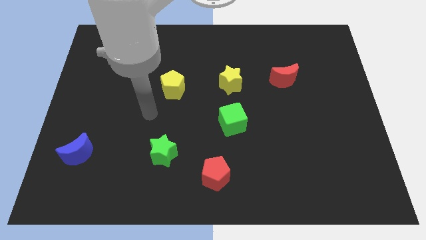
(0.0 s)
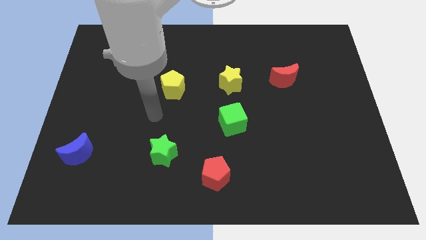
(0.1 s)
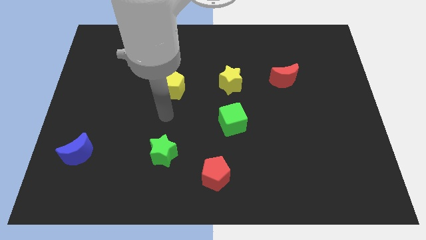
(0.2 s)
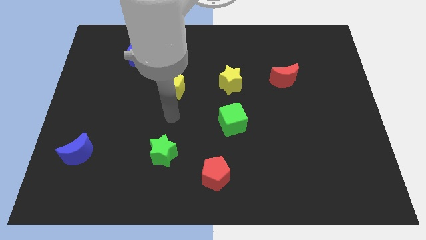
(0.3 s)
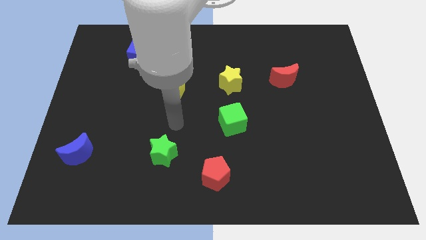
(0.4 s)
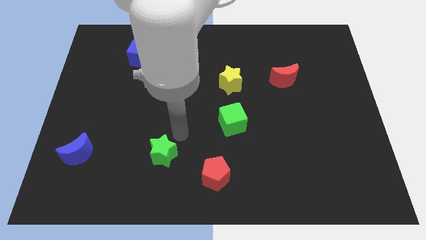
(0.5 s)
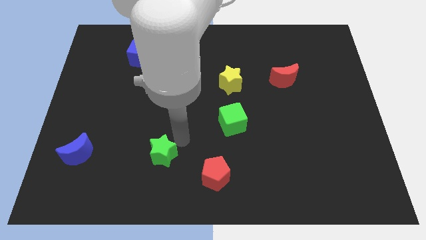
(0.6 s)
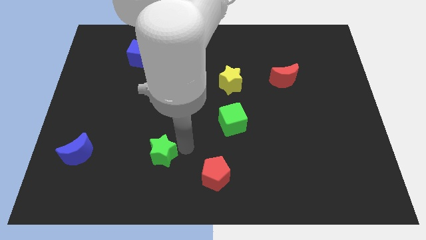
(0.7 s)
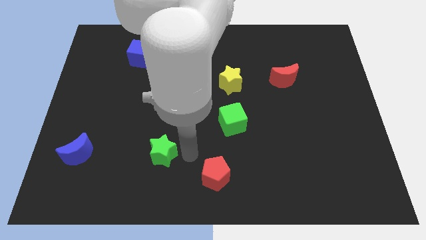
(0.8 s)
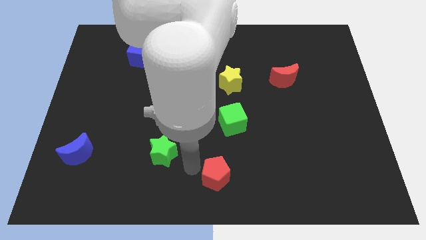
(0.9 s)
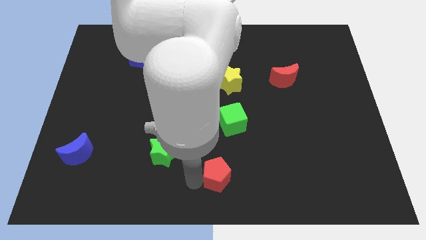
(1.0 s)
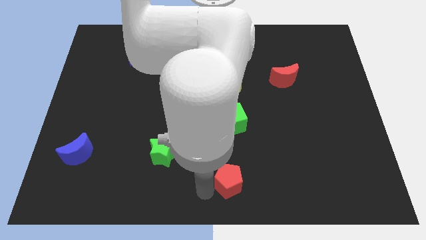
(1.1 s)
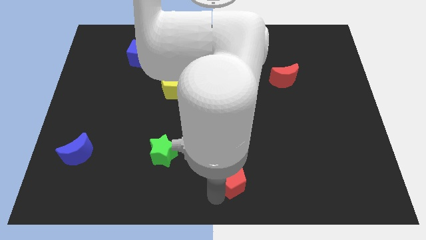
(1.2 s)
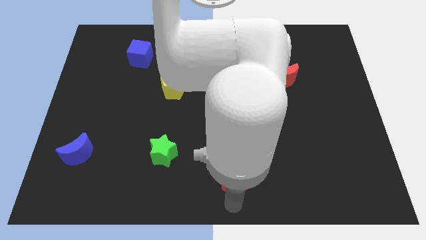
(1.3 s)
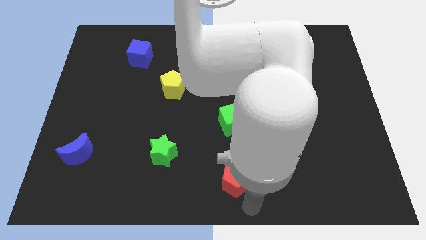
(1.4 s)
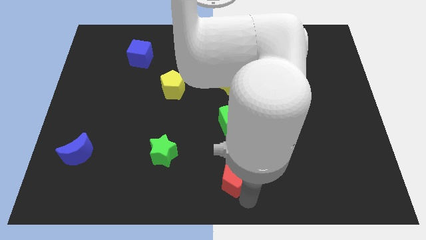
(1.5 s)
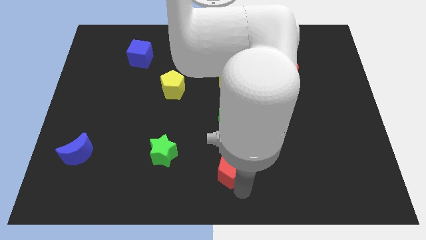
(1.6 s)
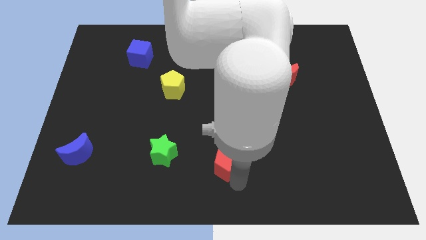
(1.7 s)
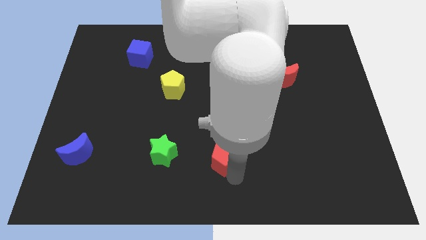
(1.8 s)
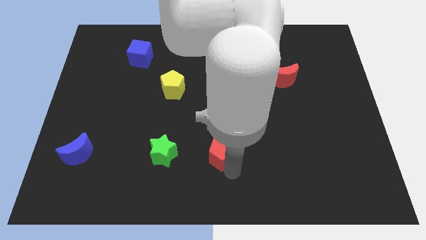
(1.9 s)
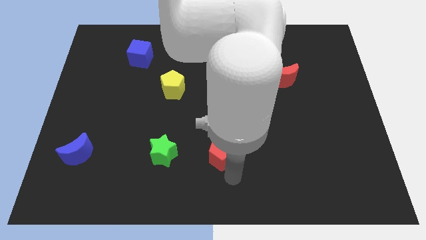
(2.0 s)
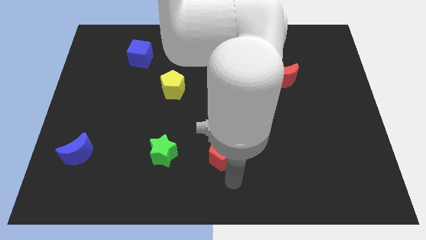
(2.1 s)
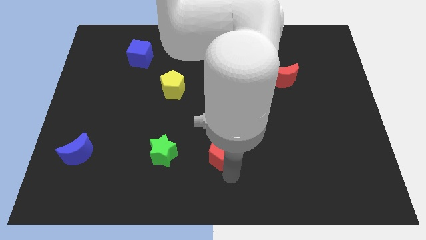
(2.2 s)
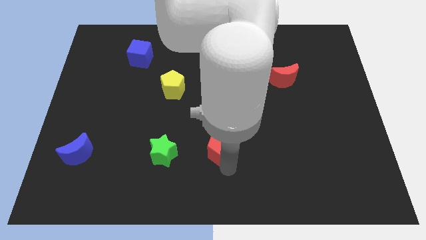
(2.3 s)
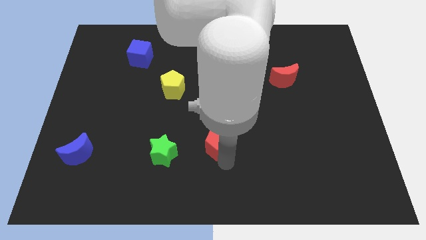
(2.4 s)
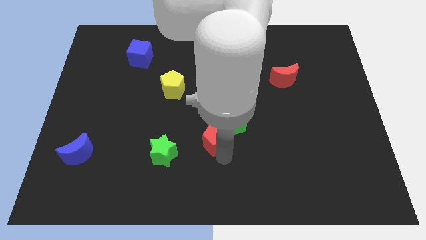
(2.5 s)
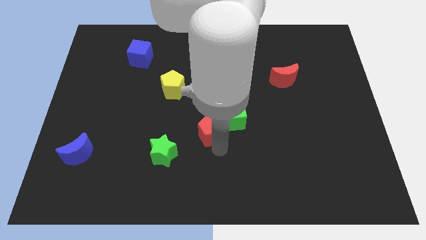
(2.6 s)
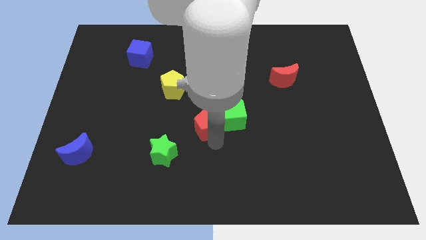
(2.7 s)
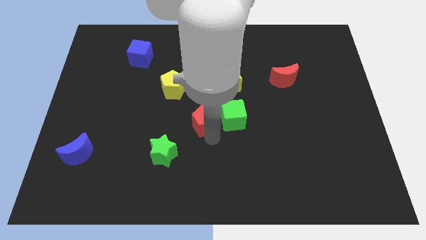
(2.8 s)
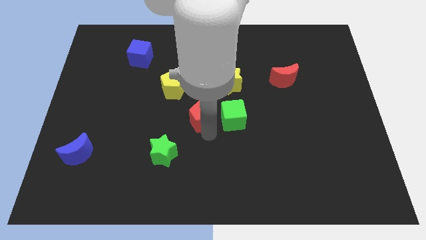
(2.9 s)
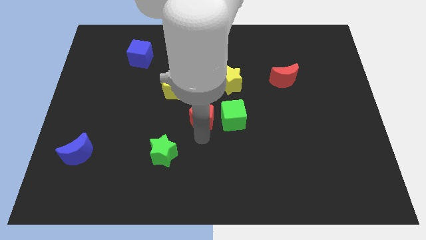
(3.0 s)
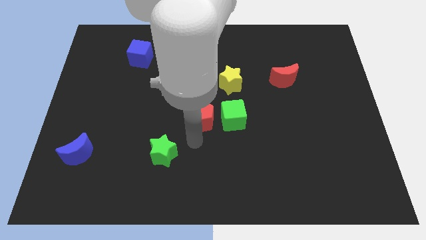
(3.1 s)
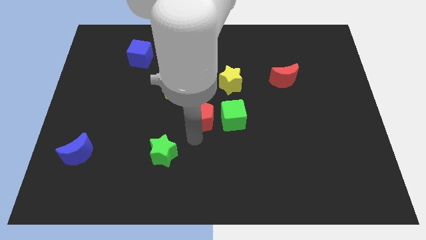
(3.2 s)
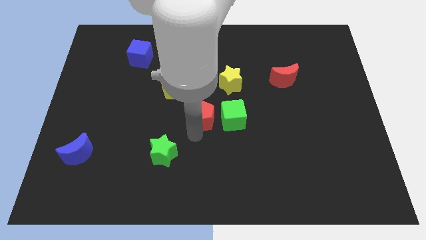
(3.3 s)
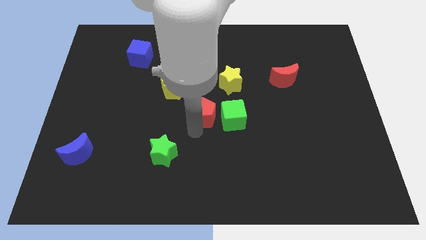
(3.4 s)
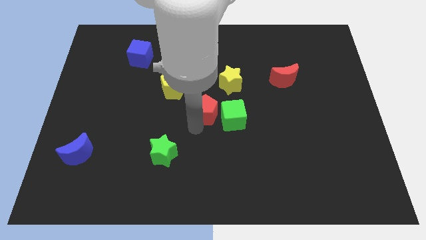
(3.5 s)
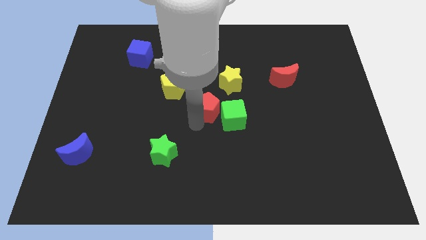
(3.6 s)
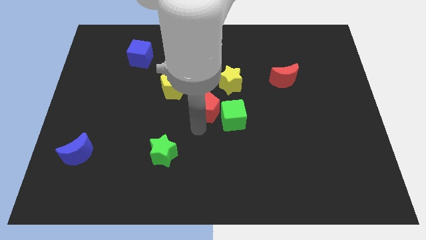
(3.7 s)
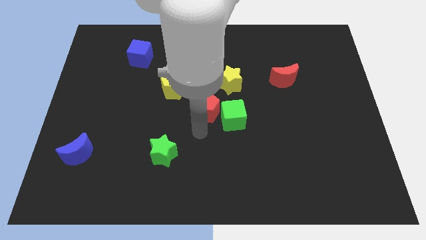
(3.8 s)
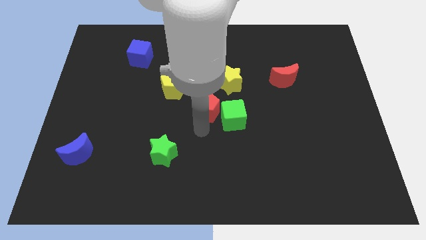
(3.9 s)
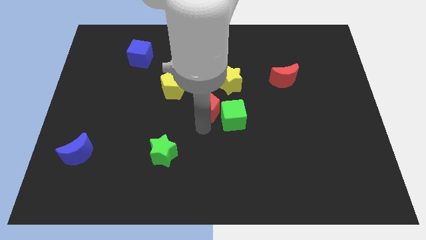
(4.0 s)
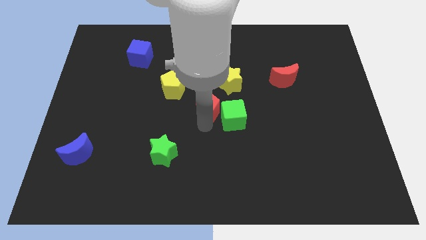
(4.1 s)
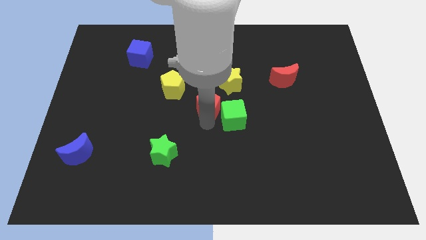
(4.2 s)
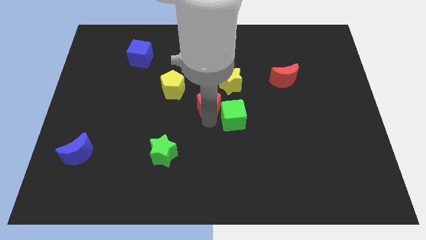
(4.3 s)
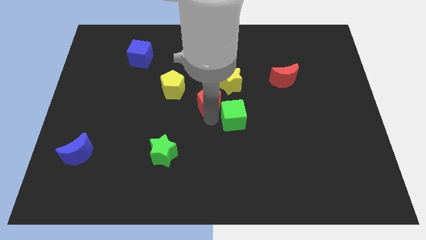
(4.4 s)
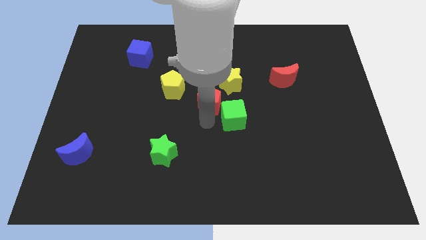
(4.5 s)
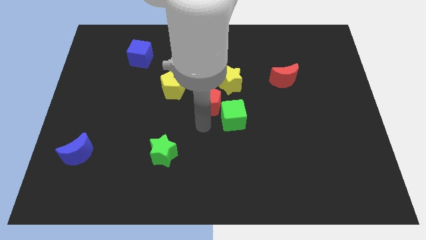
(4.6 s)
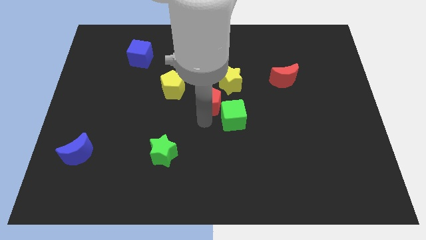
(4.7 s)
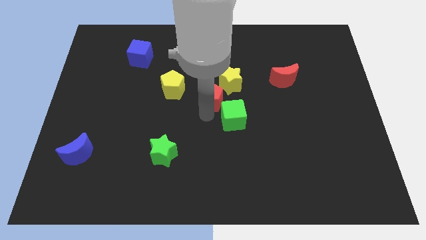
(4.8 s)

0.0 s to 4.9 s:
put the red pentagon to the right side of the yellow pentagon

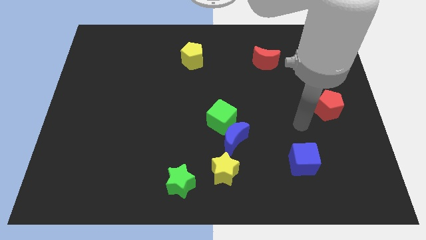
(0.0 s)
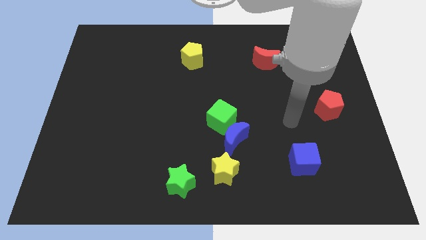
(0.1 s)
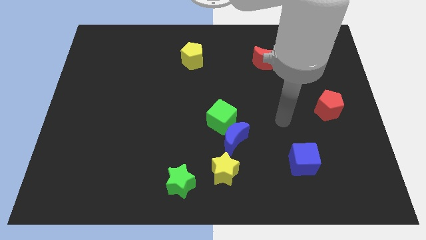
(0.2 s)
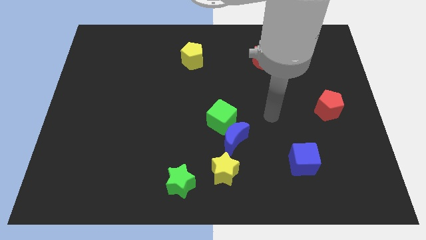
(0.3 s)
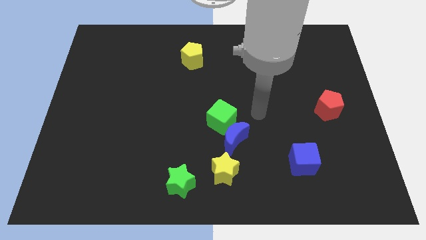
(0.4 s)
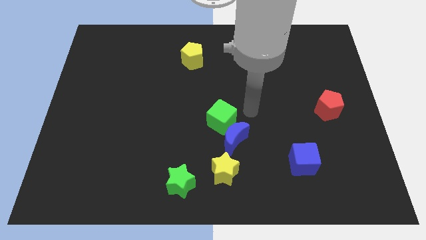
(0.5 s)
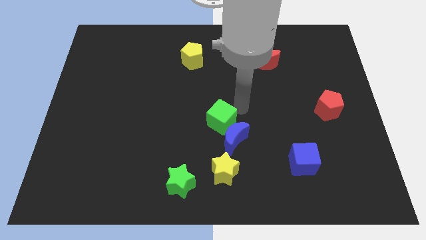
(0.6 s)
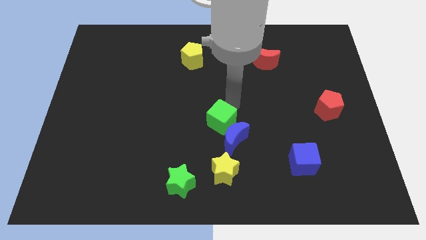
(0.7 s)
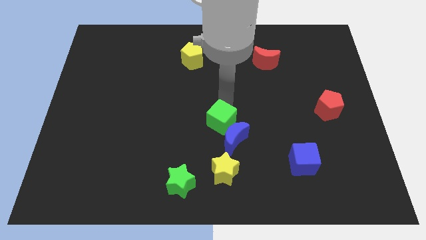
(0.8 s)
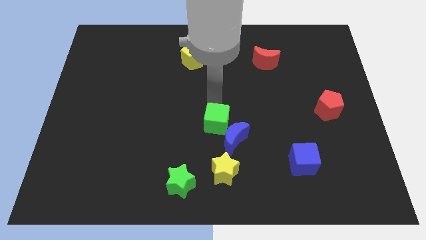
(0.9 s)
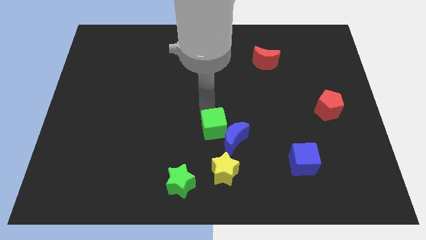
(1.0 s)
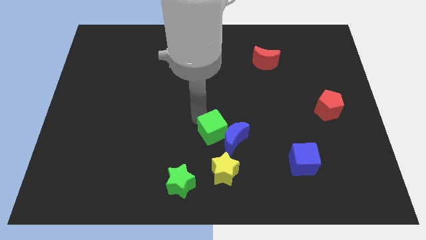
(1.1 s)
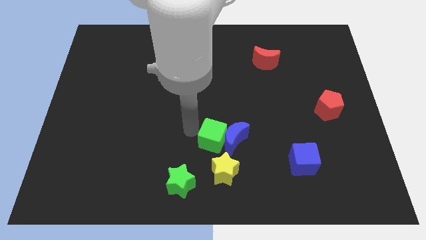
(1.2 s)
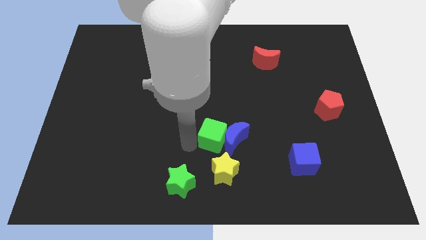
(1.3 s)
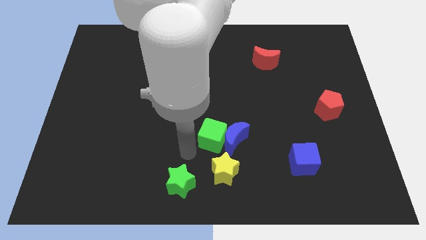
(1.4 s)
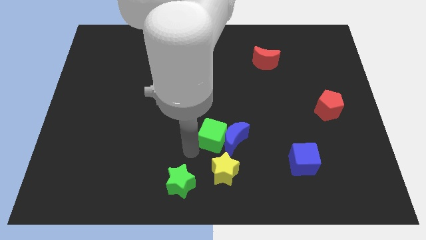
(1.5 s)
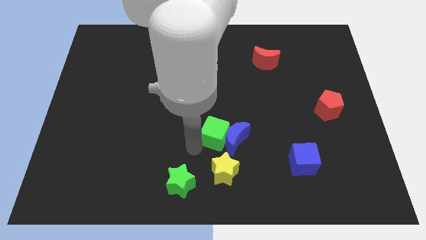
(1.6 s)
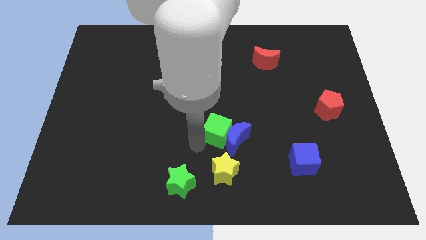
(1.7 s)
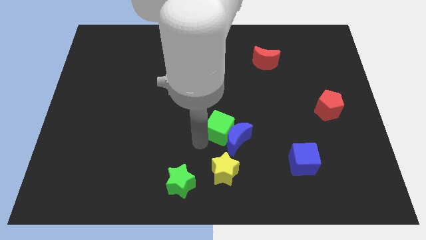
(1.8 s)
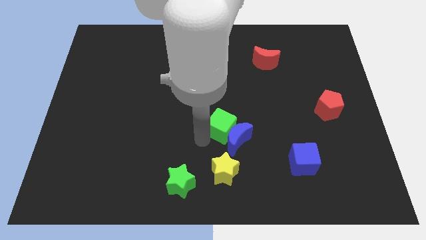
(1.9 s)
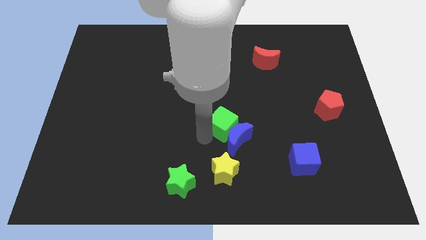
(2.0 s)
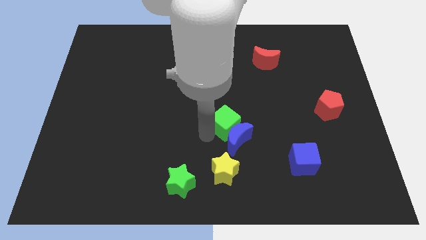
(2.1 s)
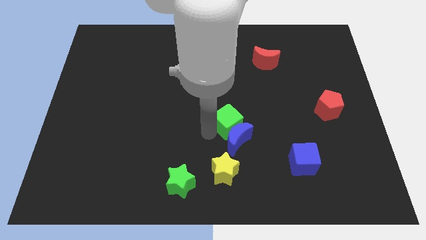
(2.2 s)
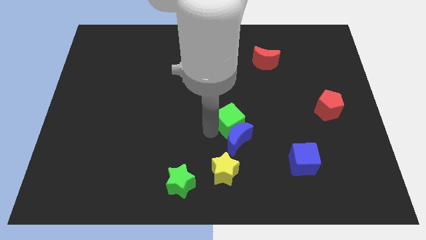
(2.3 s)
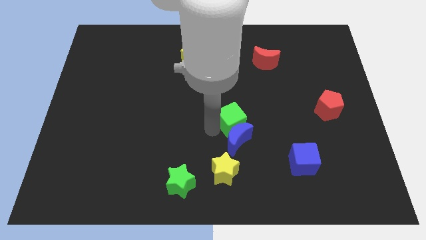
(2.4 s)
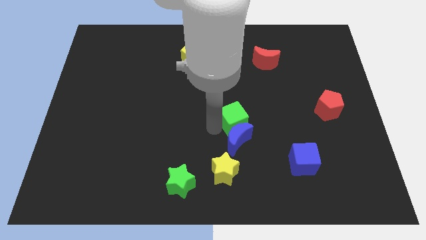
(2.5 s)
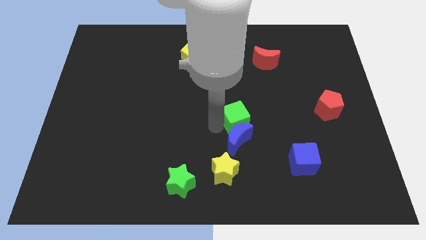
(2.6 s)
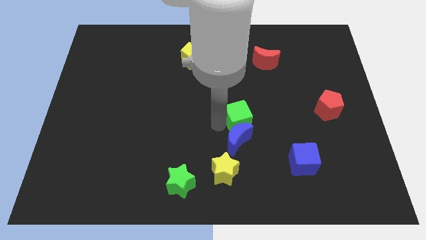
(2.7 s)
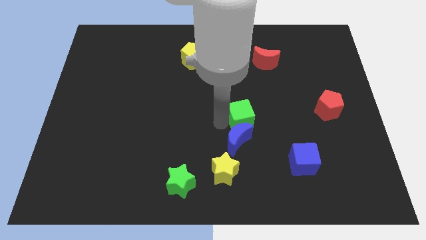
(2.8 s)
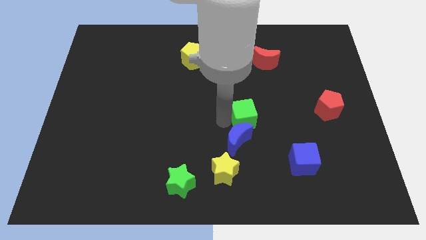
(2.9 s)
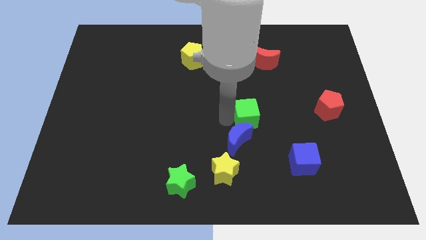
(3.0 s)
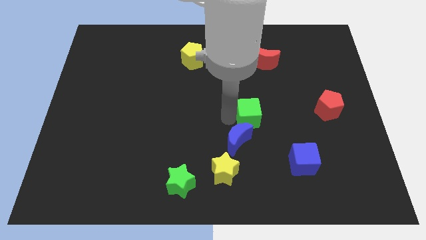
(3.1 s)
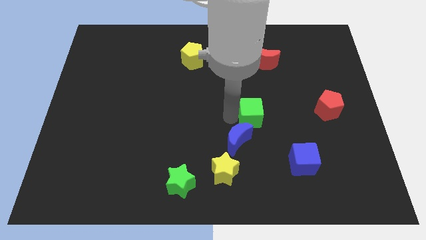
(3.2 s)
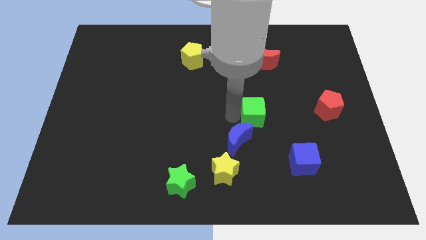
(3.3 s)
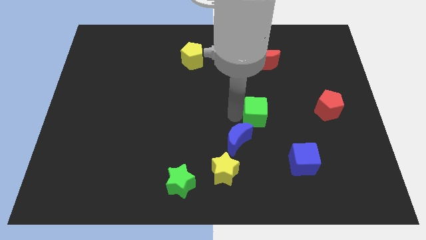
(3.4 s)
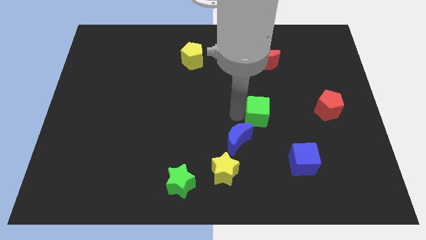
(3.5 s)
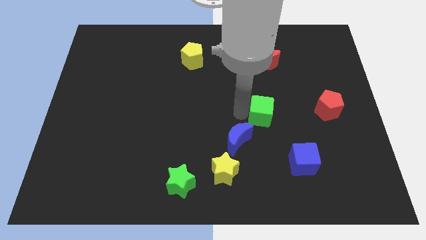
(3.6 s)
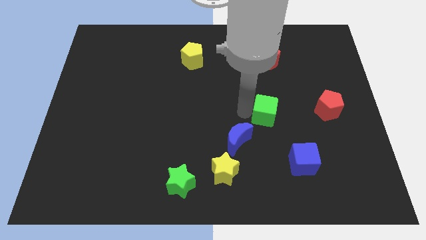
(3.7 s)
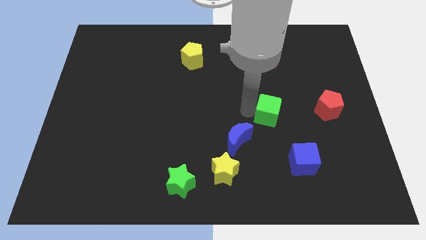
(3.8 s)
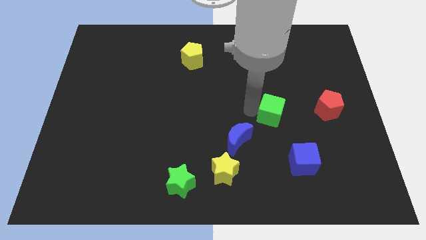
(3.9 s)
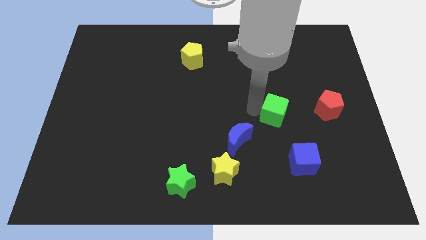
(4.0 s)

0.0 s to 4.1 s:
move the green cube to the top side of the blue cube
